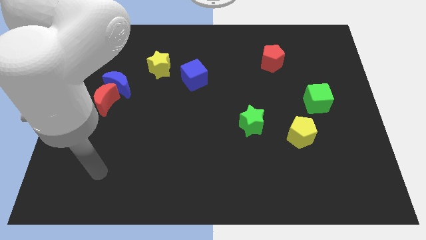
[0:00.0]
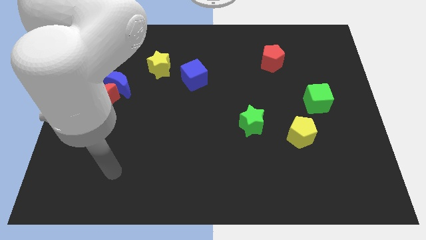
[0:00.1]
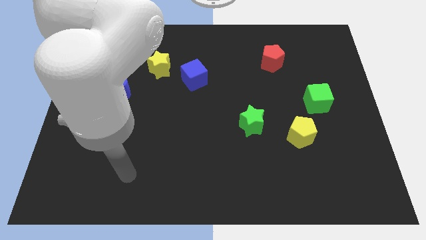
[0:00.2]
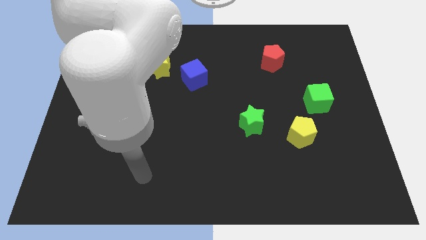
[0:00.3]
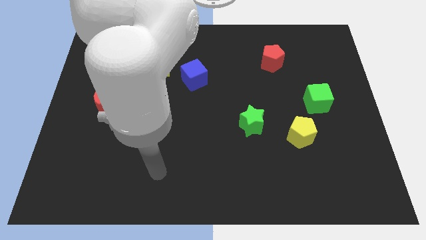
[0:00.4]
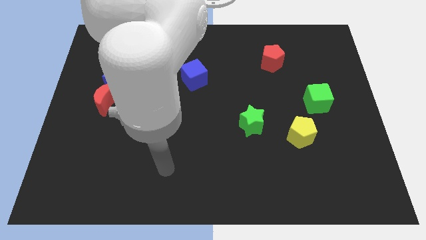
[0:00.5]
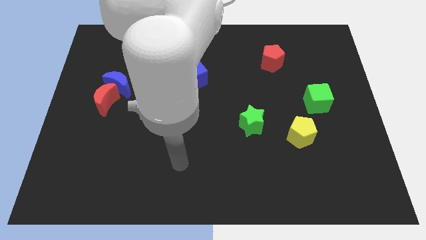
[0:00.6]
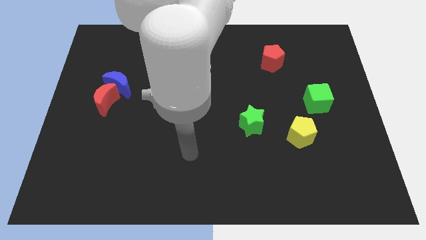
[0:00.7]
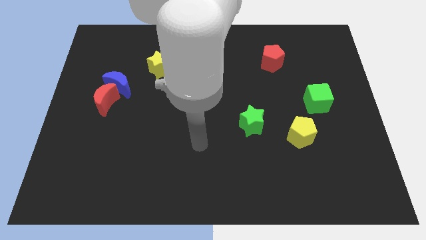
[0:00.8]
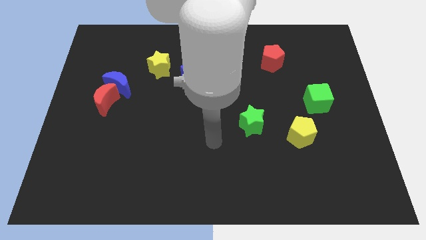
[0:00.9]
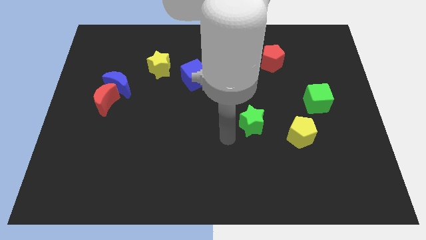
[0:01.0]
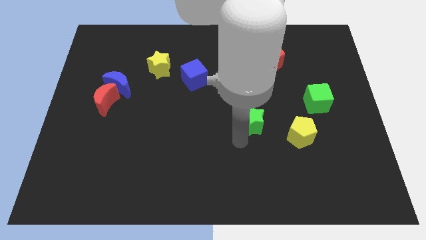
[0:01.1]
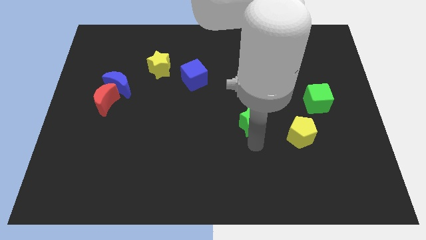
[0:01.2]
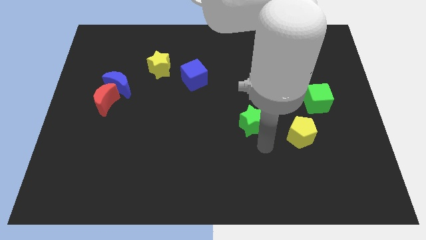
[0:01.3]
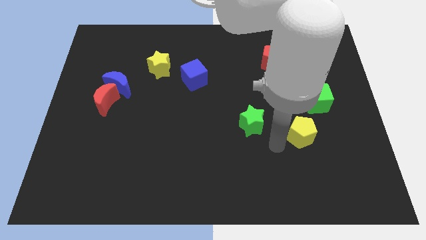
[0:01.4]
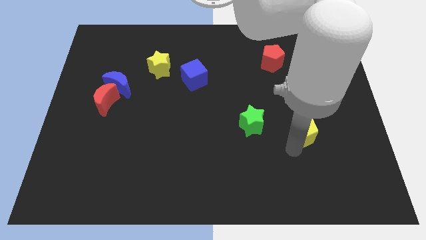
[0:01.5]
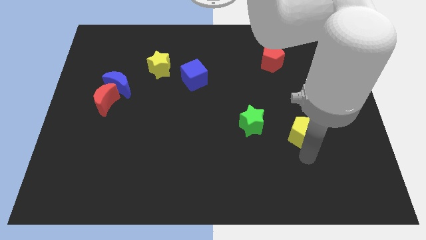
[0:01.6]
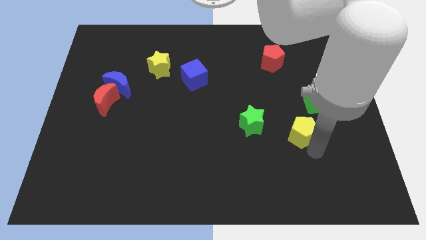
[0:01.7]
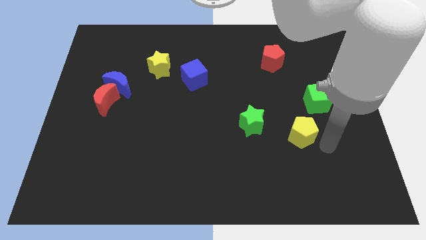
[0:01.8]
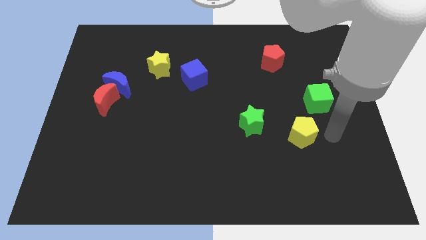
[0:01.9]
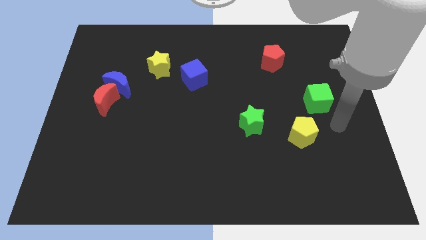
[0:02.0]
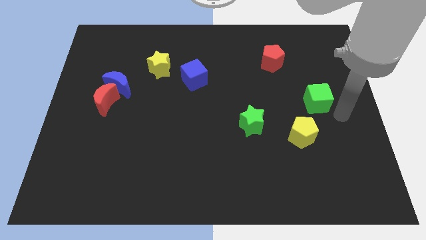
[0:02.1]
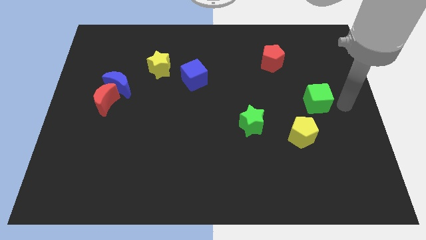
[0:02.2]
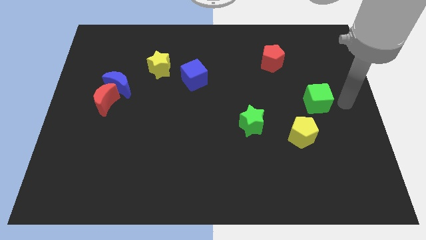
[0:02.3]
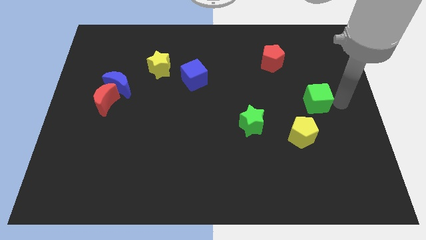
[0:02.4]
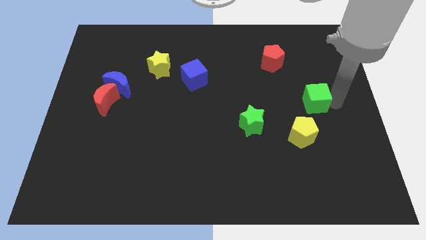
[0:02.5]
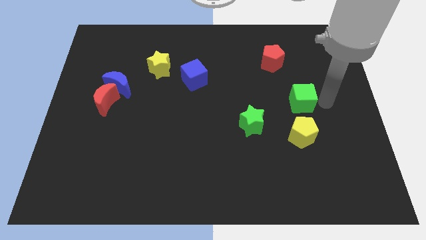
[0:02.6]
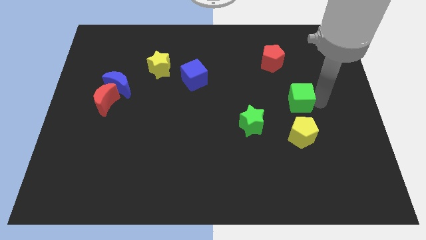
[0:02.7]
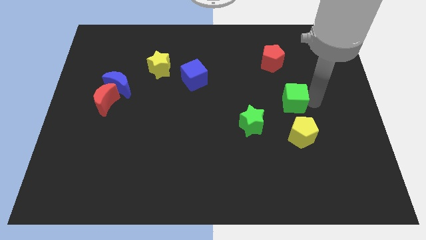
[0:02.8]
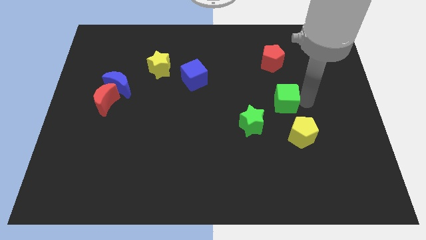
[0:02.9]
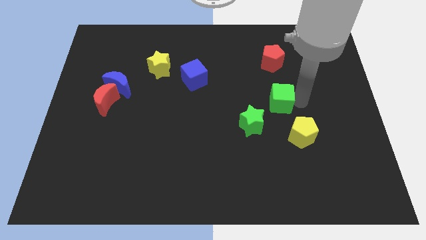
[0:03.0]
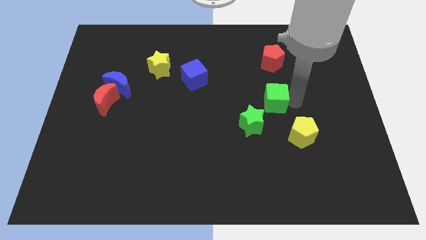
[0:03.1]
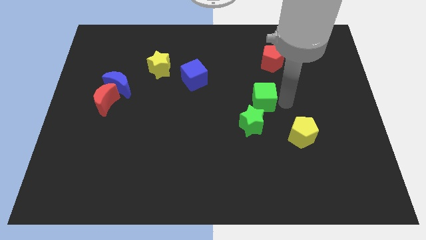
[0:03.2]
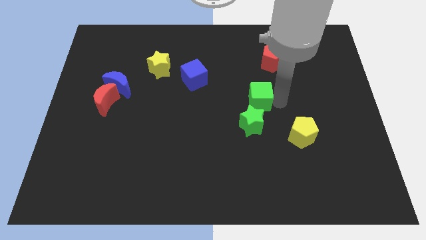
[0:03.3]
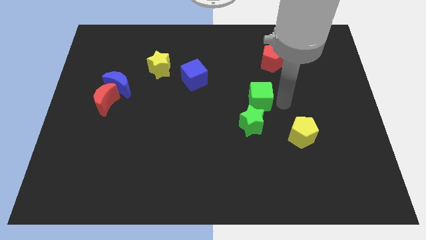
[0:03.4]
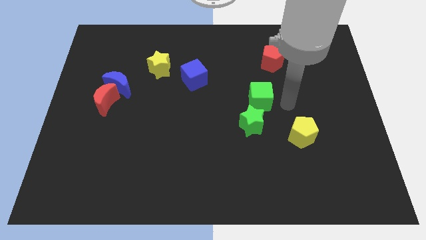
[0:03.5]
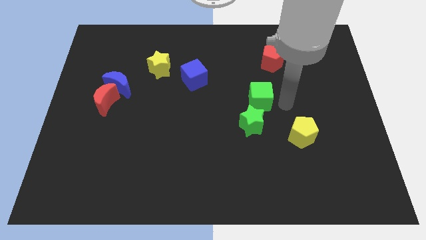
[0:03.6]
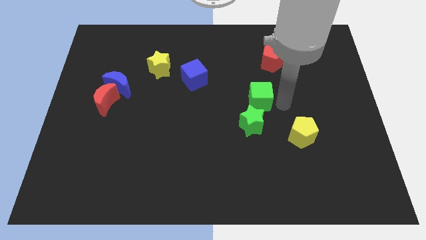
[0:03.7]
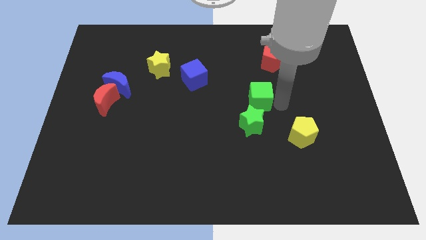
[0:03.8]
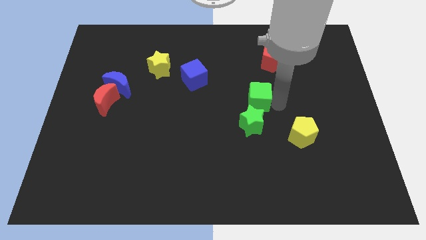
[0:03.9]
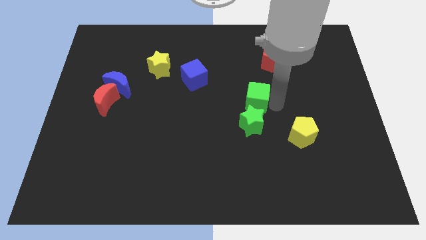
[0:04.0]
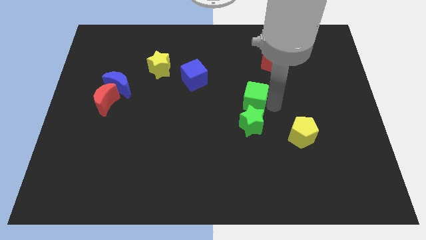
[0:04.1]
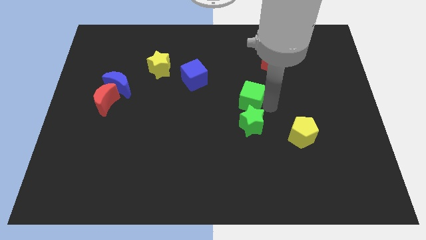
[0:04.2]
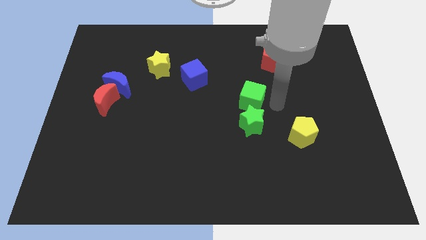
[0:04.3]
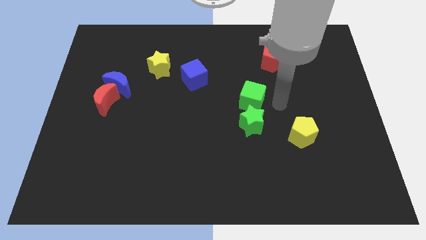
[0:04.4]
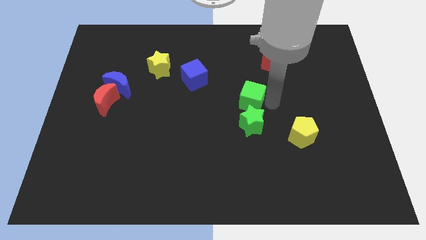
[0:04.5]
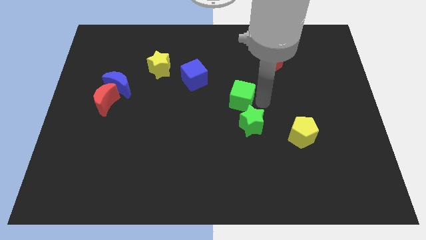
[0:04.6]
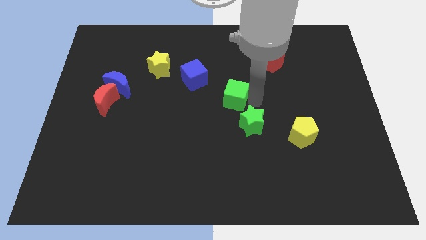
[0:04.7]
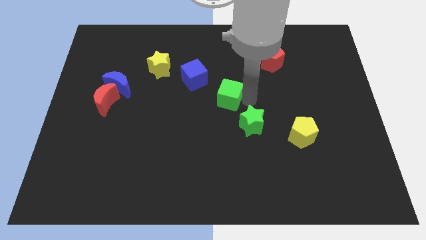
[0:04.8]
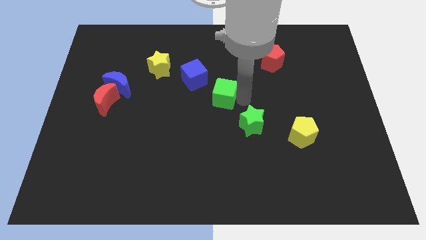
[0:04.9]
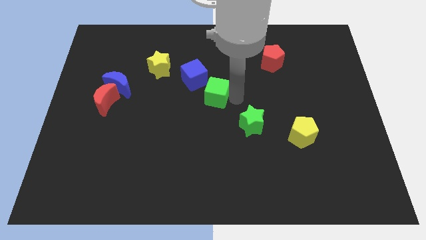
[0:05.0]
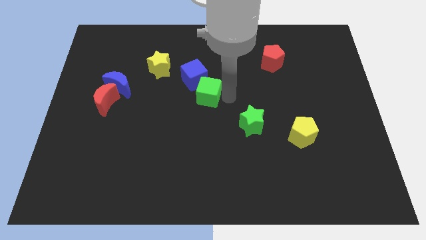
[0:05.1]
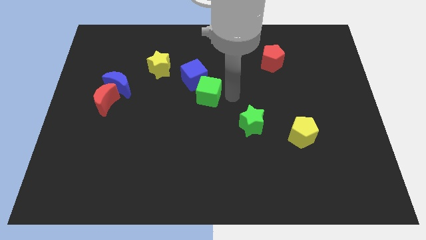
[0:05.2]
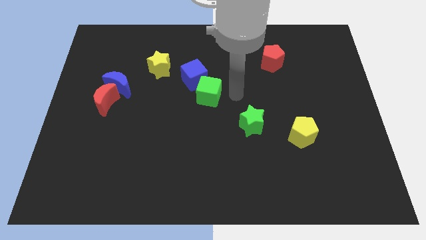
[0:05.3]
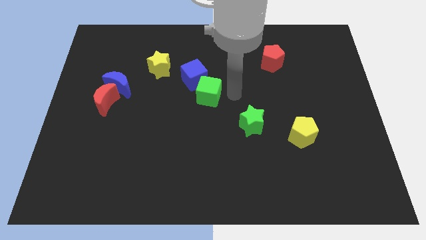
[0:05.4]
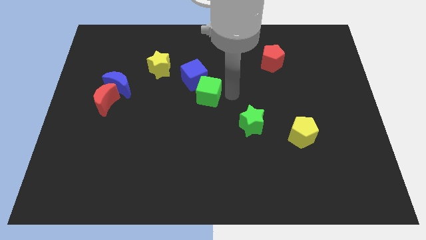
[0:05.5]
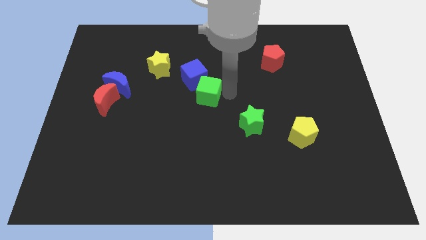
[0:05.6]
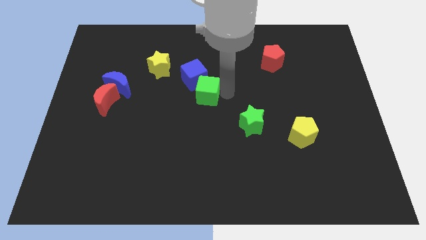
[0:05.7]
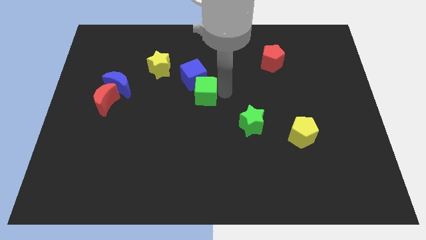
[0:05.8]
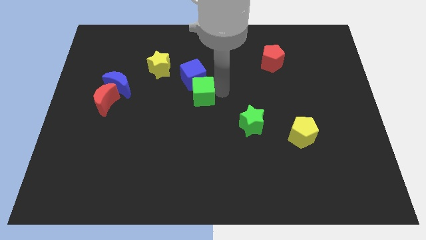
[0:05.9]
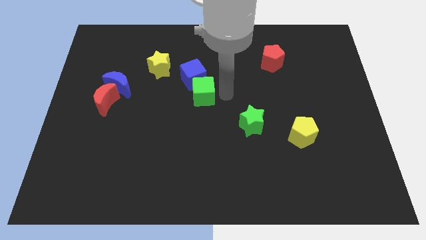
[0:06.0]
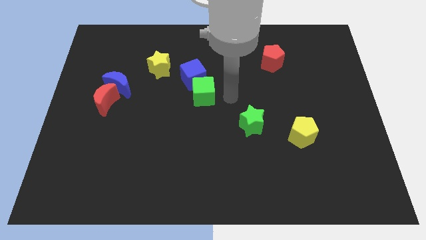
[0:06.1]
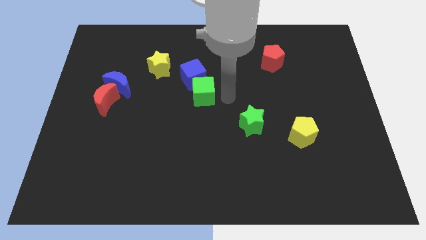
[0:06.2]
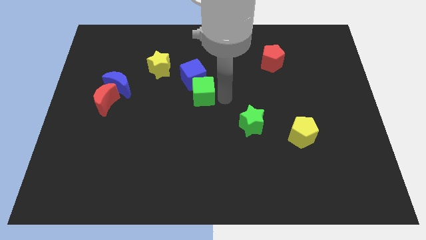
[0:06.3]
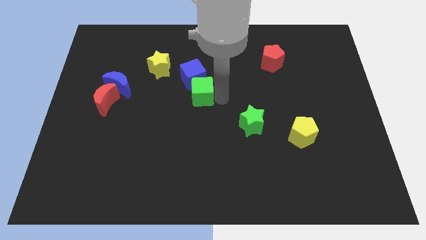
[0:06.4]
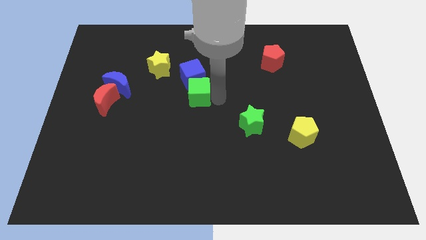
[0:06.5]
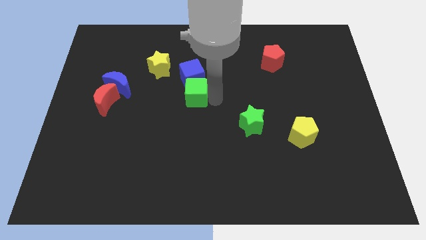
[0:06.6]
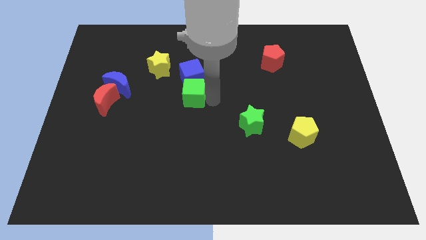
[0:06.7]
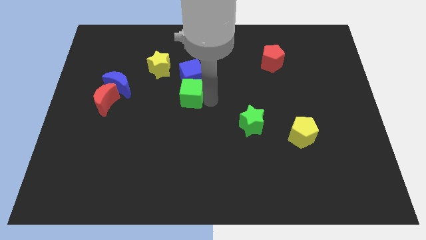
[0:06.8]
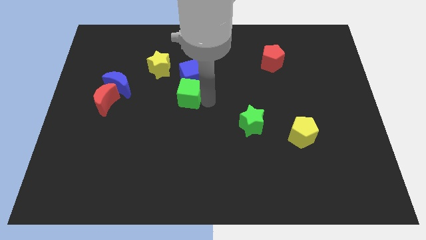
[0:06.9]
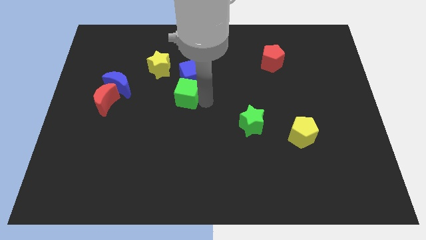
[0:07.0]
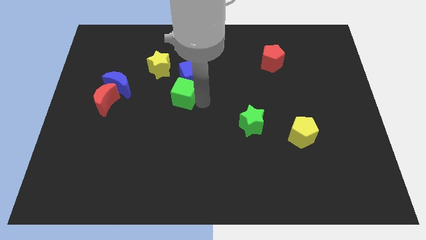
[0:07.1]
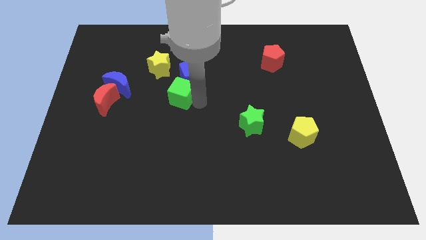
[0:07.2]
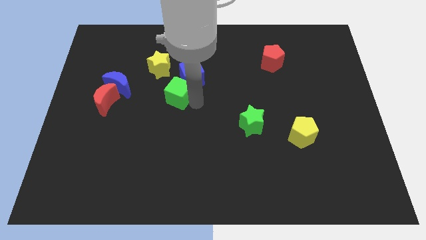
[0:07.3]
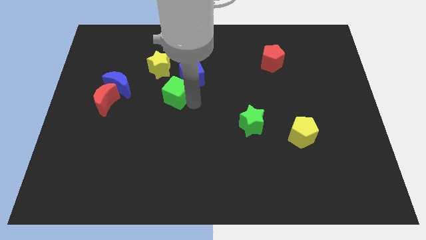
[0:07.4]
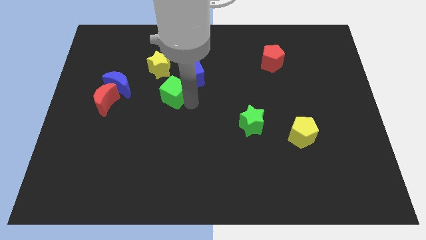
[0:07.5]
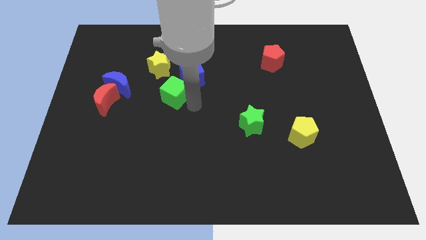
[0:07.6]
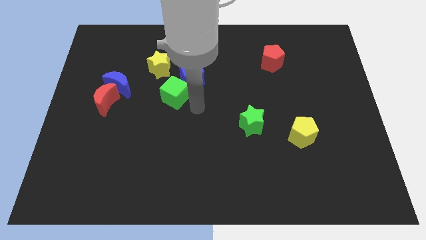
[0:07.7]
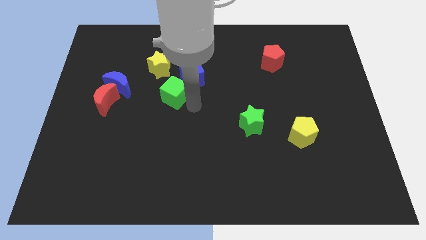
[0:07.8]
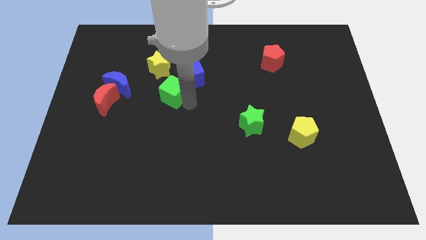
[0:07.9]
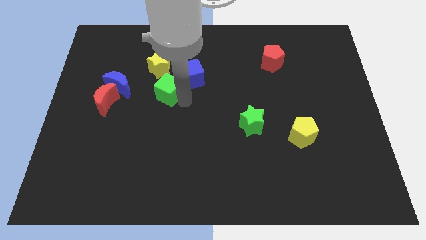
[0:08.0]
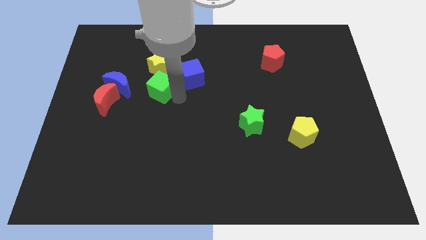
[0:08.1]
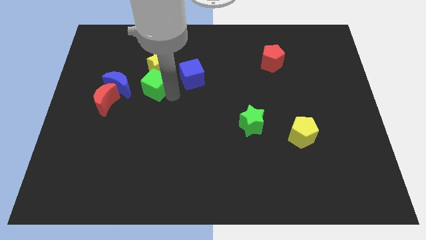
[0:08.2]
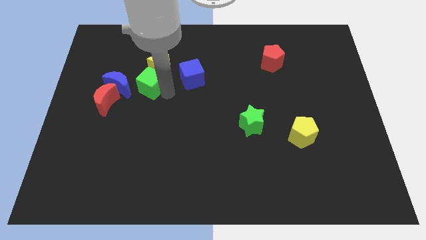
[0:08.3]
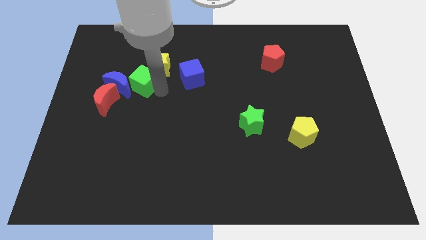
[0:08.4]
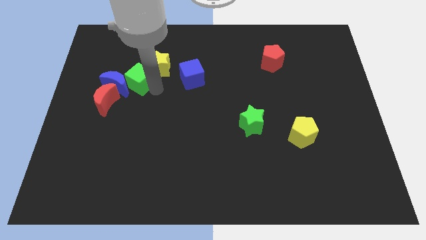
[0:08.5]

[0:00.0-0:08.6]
push the green cube just left of the yellow star
